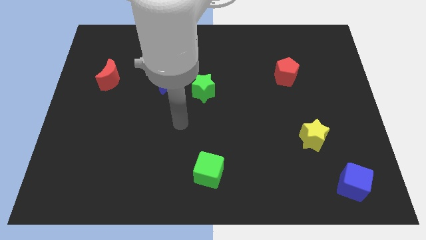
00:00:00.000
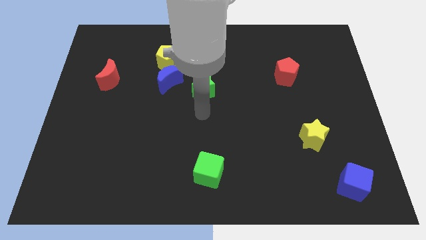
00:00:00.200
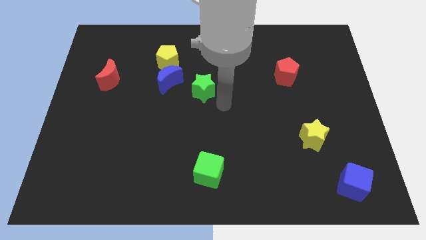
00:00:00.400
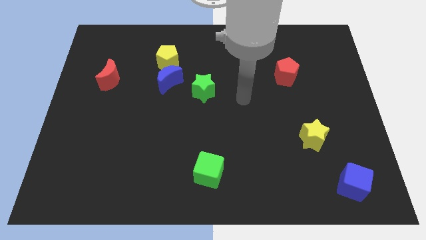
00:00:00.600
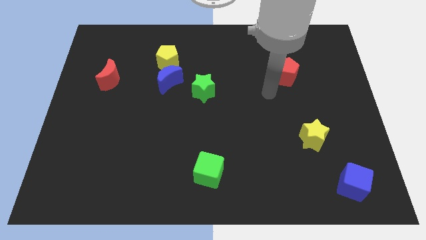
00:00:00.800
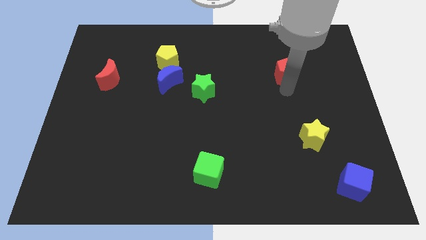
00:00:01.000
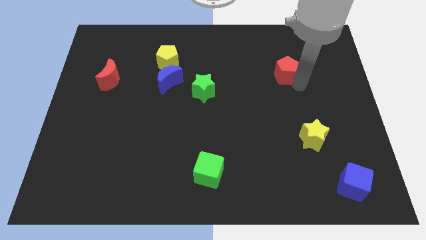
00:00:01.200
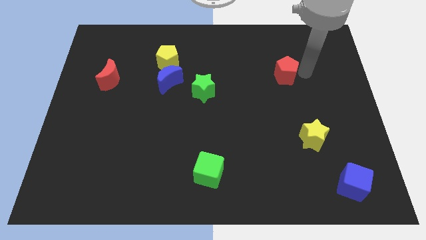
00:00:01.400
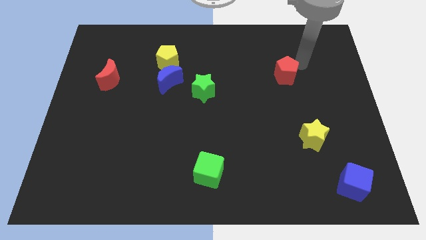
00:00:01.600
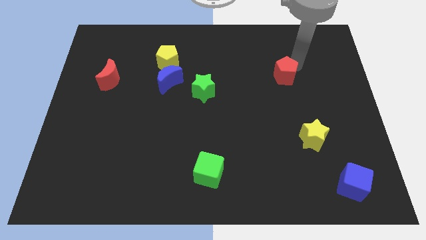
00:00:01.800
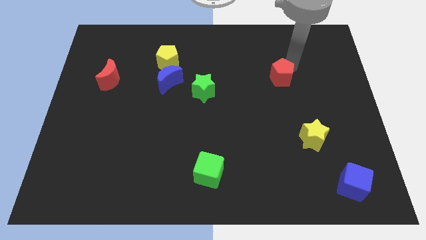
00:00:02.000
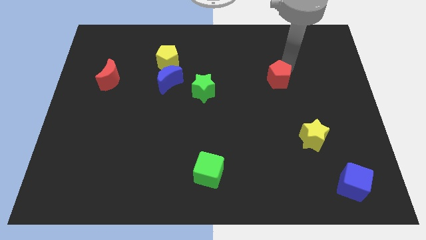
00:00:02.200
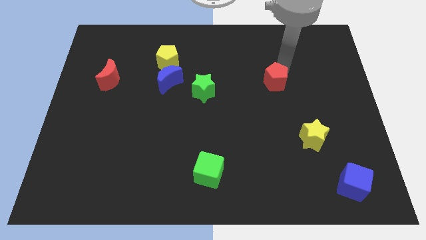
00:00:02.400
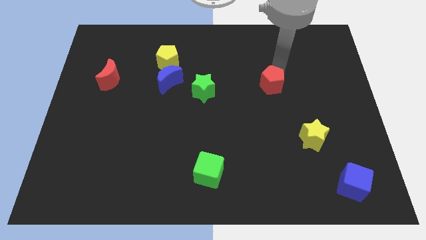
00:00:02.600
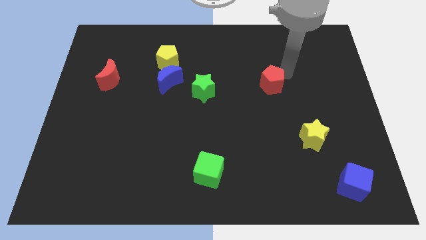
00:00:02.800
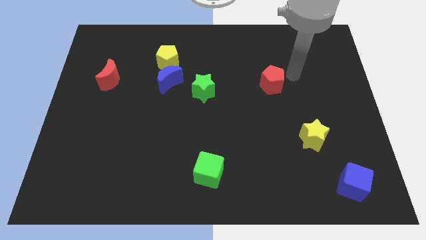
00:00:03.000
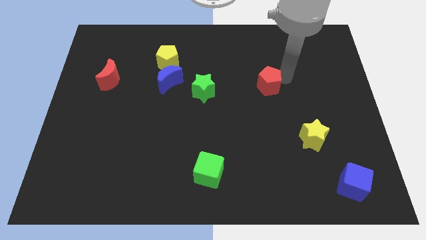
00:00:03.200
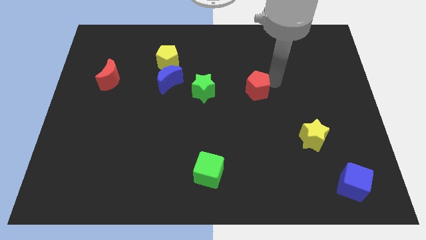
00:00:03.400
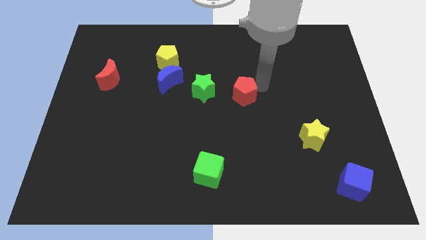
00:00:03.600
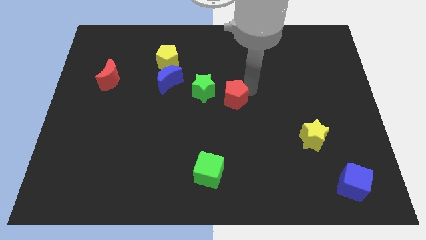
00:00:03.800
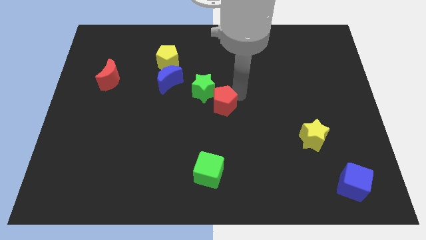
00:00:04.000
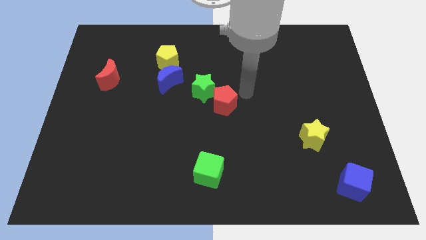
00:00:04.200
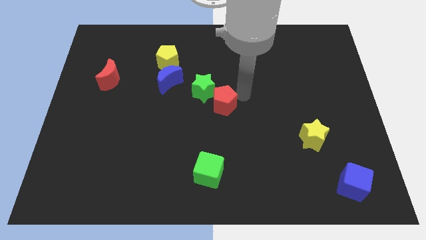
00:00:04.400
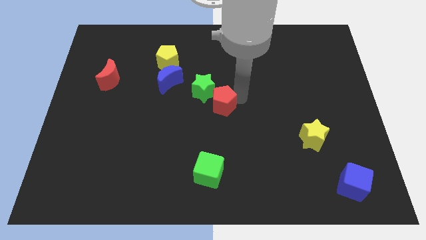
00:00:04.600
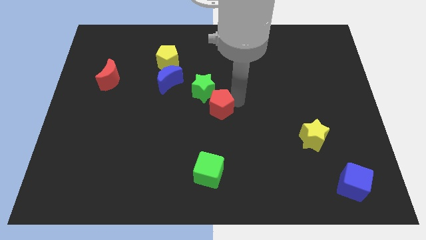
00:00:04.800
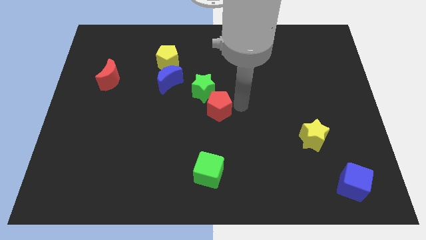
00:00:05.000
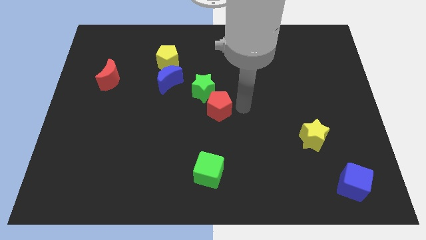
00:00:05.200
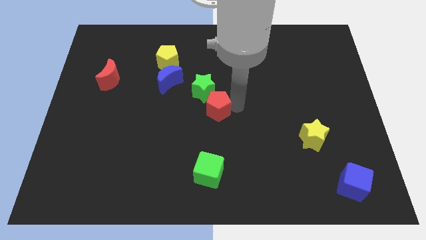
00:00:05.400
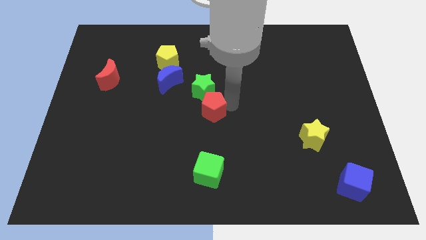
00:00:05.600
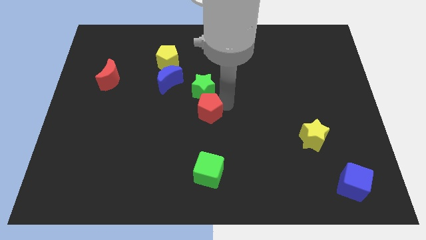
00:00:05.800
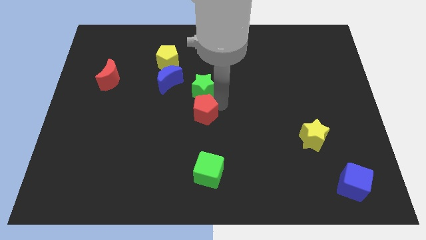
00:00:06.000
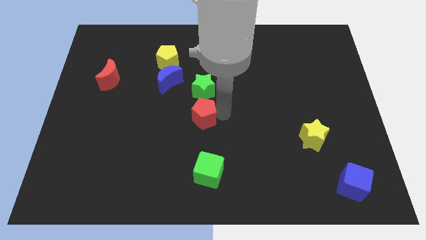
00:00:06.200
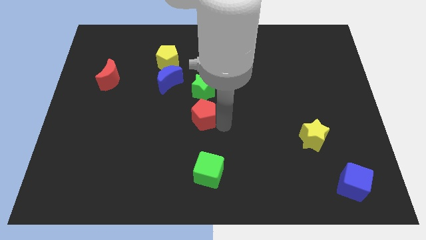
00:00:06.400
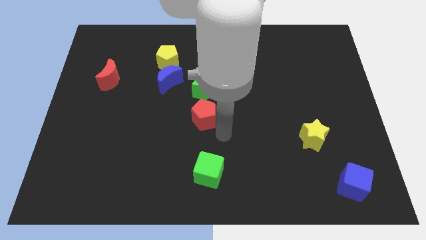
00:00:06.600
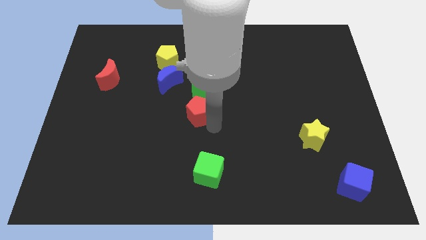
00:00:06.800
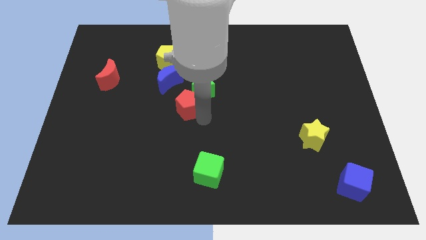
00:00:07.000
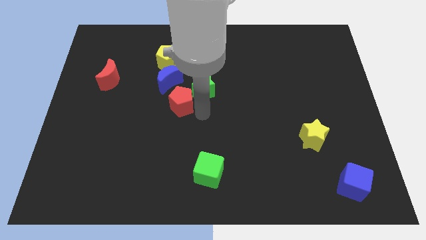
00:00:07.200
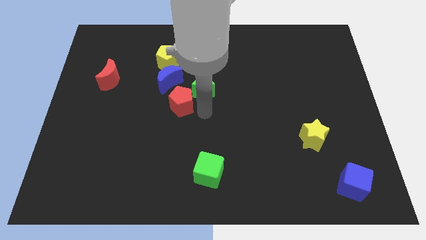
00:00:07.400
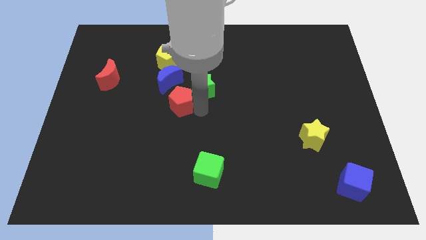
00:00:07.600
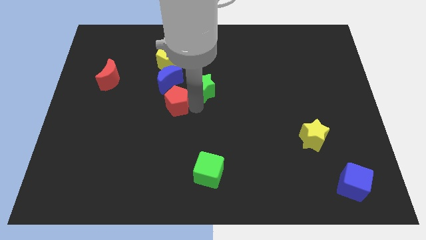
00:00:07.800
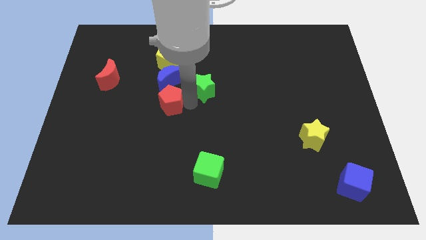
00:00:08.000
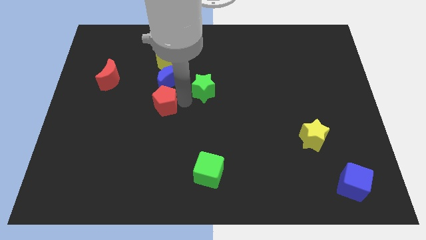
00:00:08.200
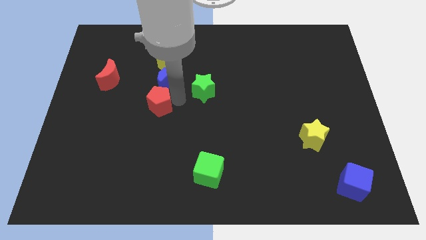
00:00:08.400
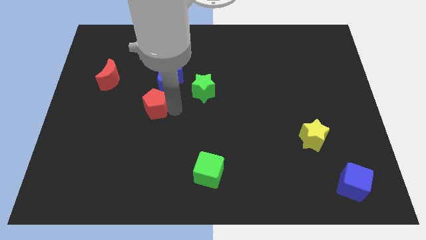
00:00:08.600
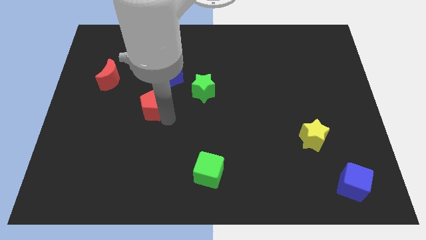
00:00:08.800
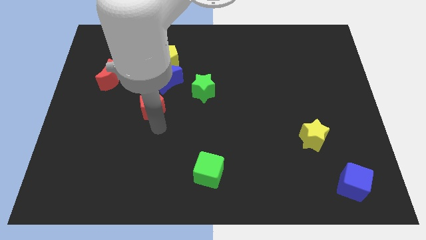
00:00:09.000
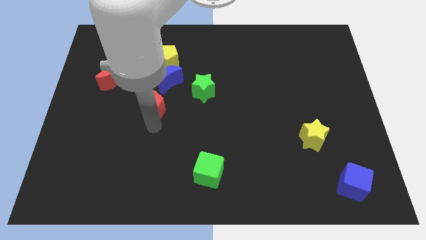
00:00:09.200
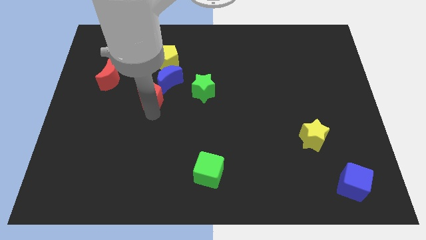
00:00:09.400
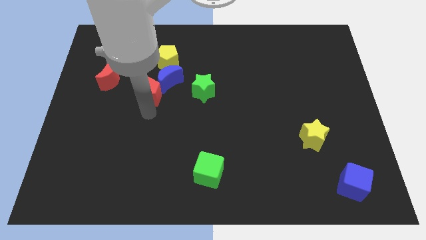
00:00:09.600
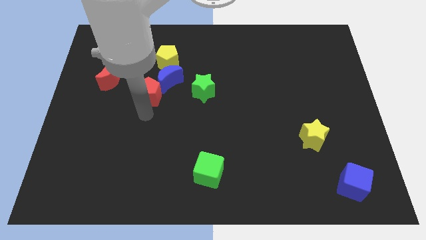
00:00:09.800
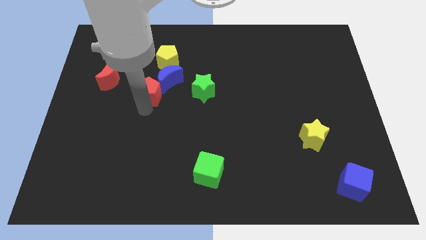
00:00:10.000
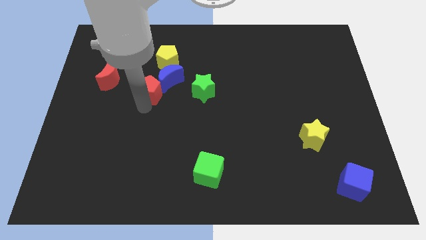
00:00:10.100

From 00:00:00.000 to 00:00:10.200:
put the red pentagon to the right side of the red moon

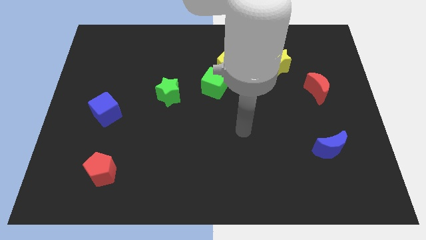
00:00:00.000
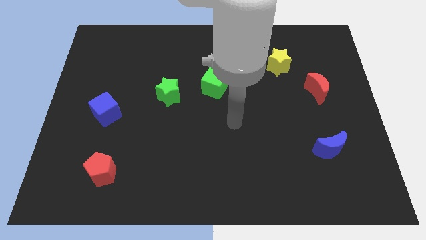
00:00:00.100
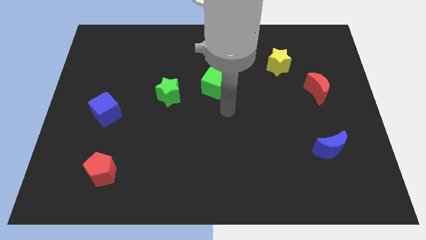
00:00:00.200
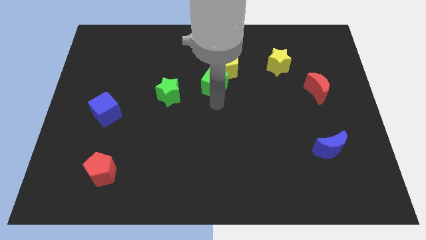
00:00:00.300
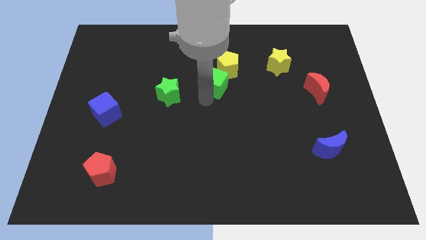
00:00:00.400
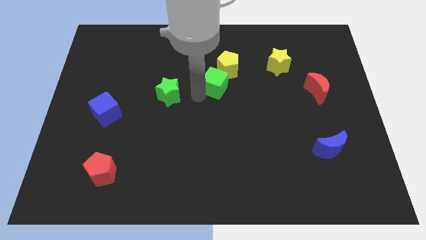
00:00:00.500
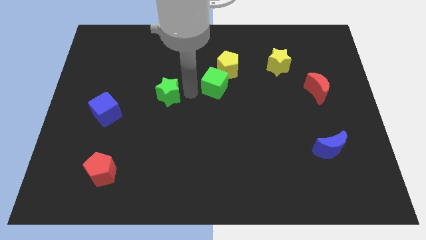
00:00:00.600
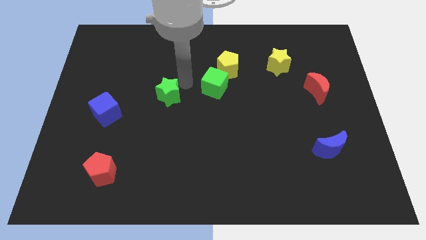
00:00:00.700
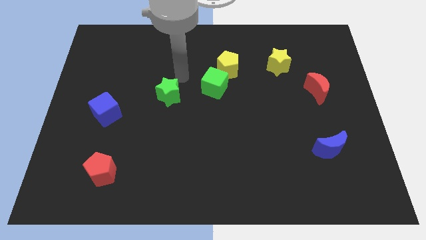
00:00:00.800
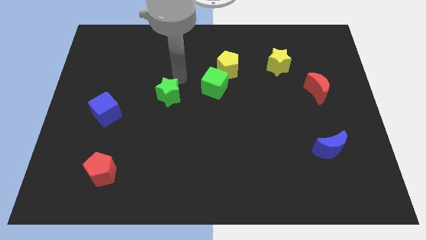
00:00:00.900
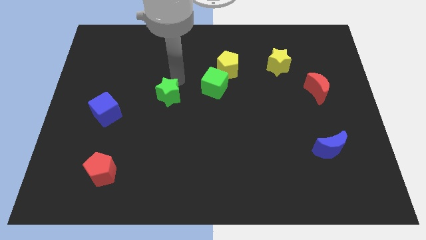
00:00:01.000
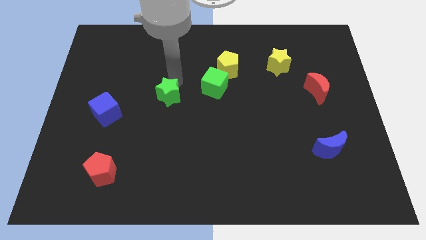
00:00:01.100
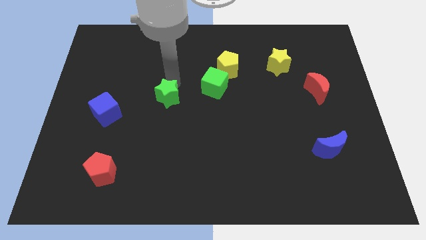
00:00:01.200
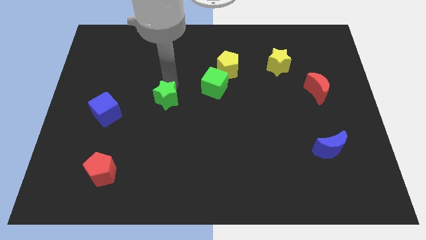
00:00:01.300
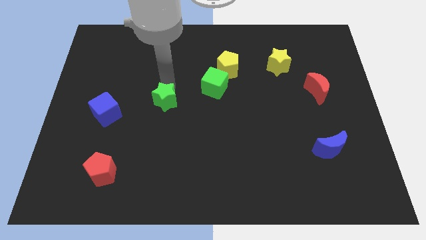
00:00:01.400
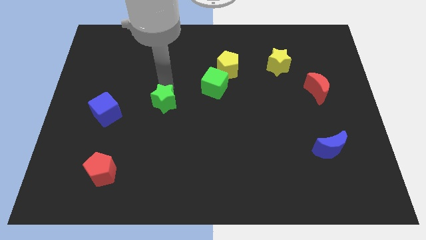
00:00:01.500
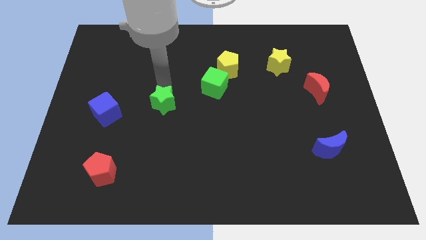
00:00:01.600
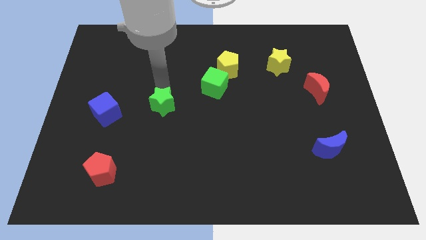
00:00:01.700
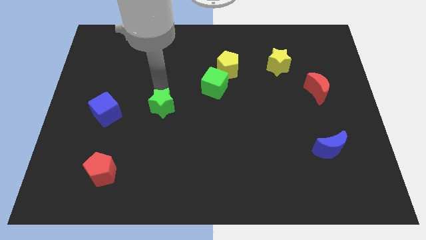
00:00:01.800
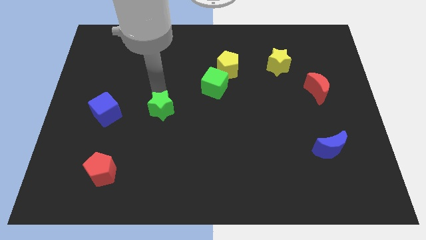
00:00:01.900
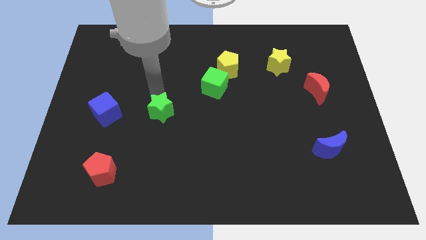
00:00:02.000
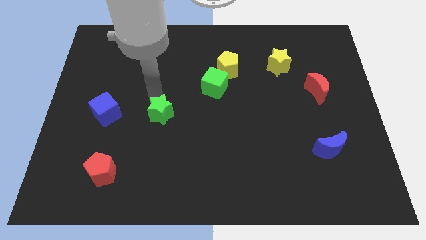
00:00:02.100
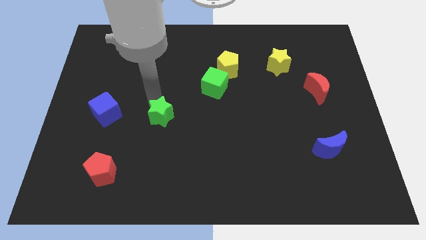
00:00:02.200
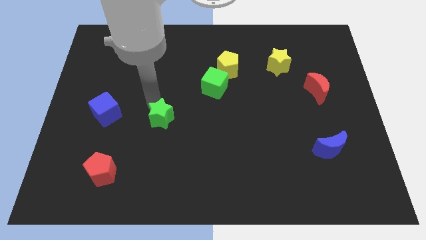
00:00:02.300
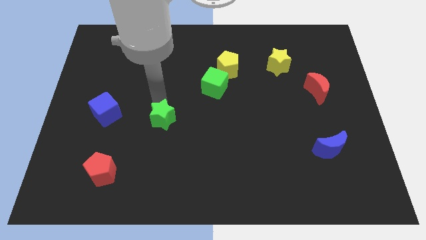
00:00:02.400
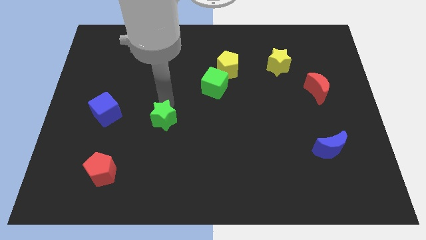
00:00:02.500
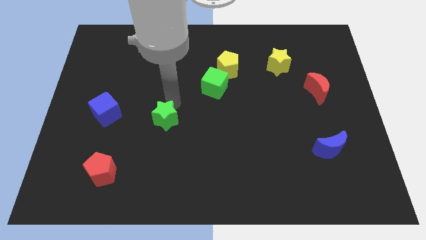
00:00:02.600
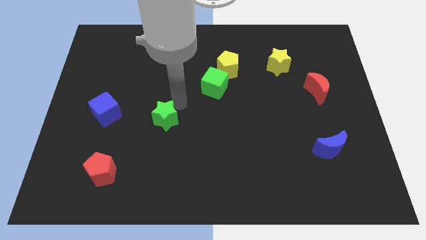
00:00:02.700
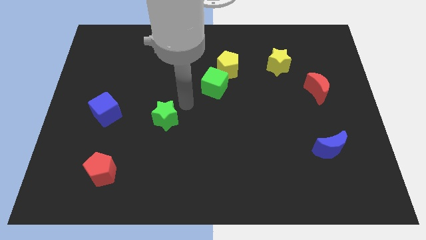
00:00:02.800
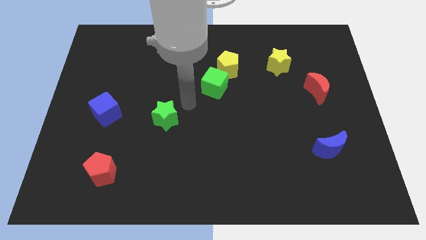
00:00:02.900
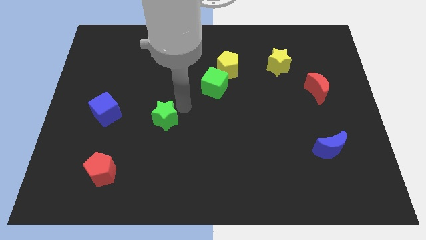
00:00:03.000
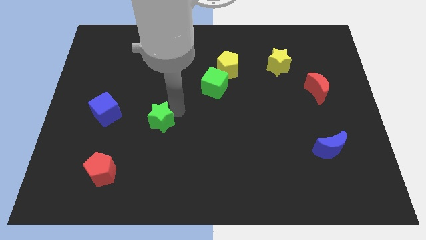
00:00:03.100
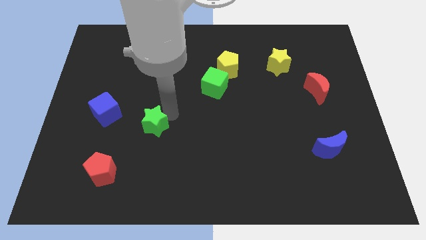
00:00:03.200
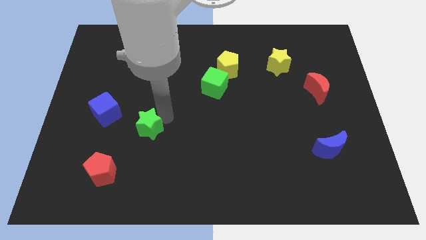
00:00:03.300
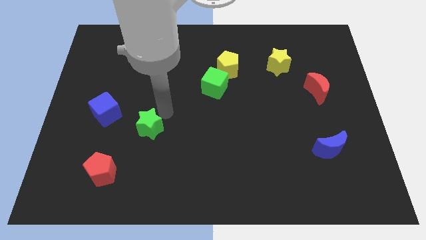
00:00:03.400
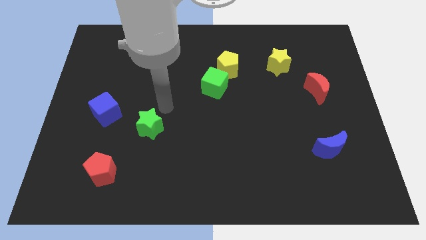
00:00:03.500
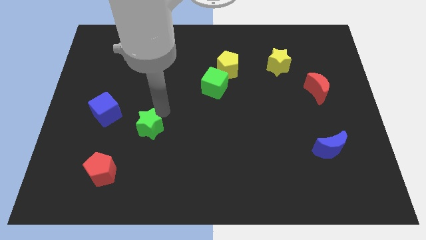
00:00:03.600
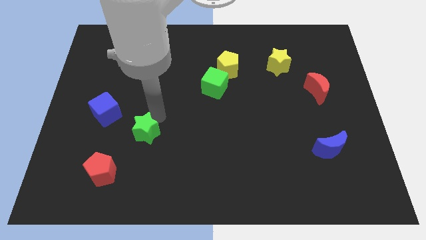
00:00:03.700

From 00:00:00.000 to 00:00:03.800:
slide the green star to the top right of the red pentagon
